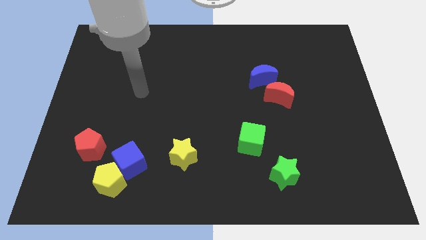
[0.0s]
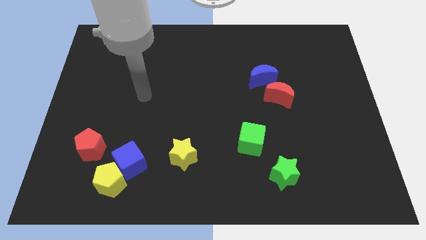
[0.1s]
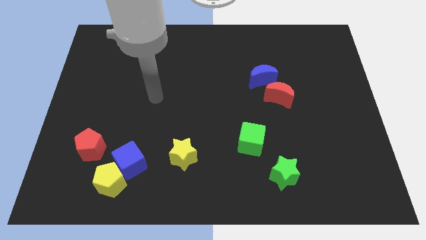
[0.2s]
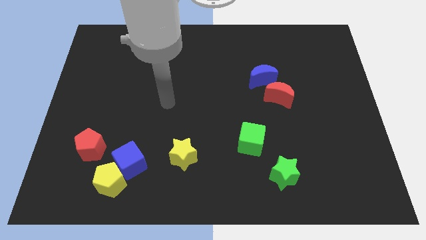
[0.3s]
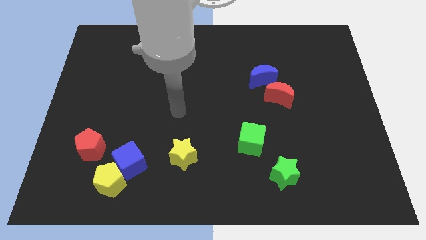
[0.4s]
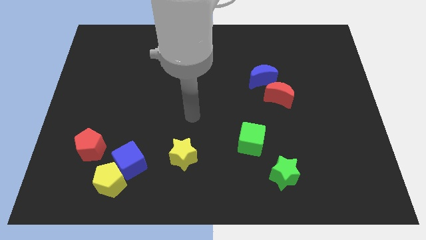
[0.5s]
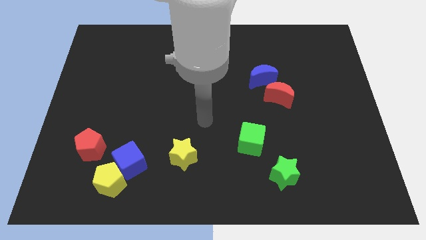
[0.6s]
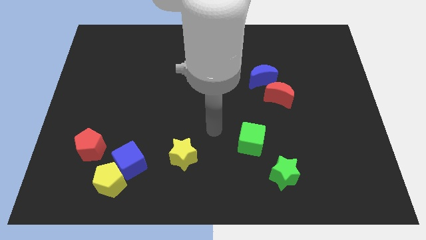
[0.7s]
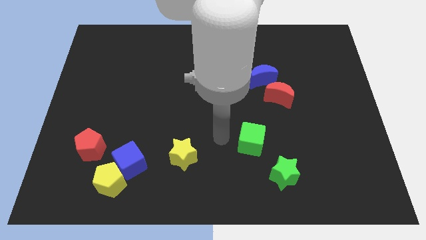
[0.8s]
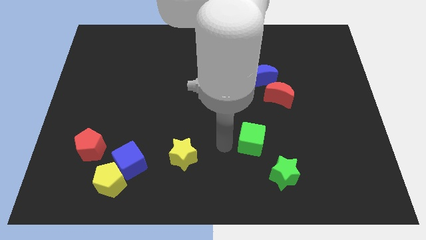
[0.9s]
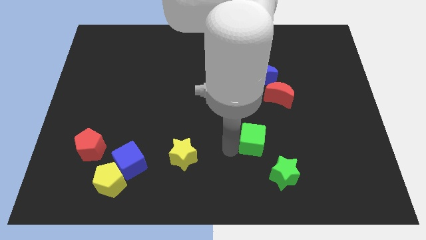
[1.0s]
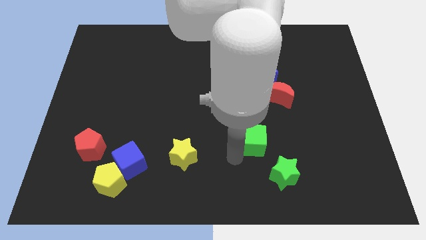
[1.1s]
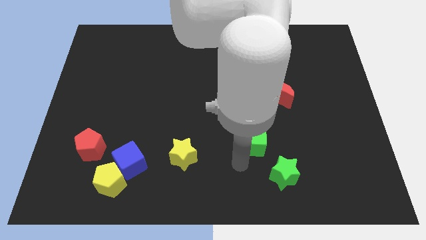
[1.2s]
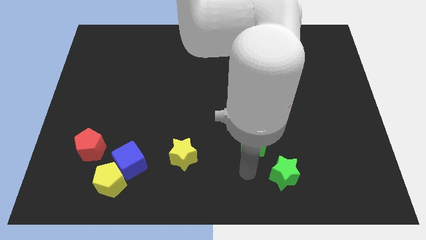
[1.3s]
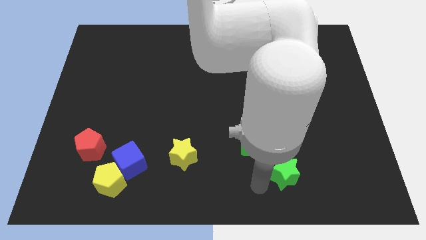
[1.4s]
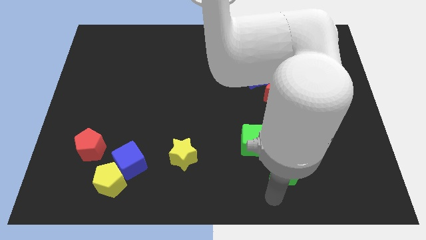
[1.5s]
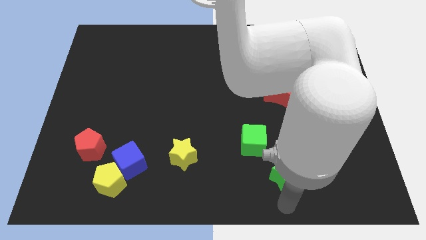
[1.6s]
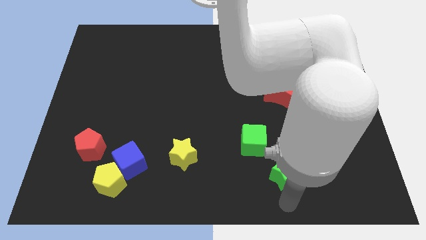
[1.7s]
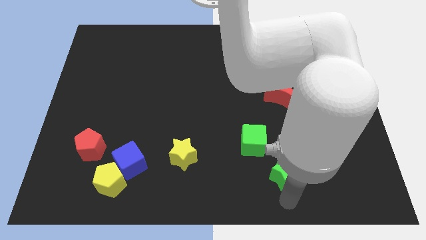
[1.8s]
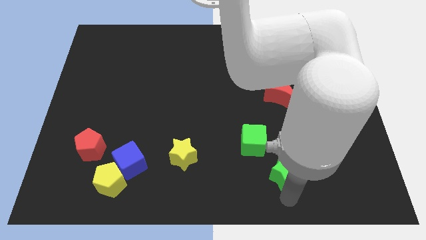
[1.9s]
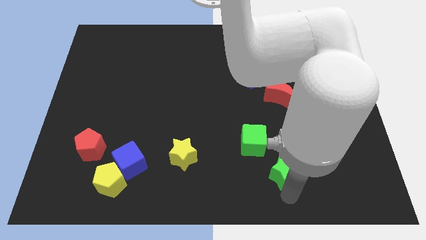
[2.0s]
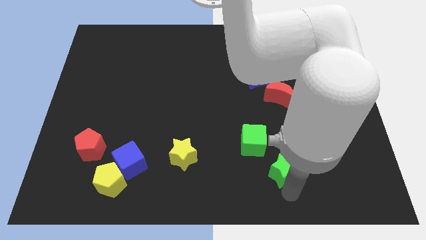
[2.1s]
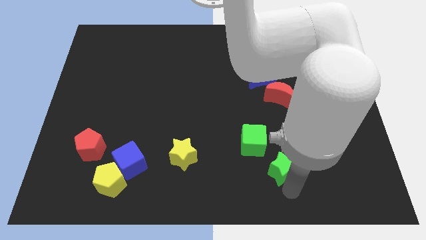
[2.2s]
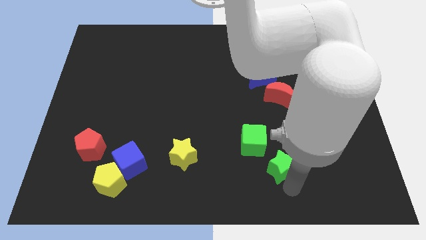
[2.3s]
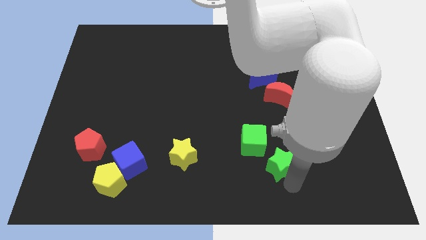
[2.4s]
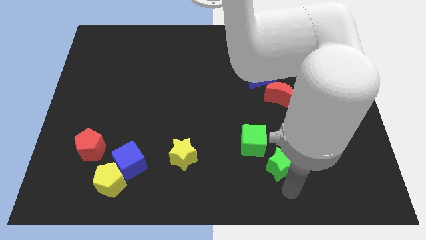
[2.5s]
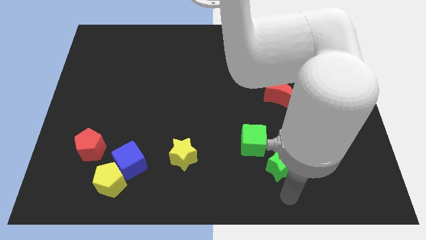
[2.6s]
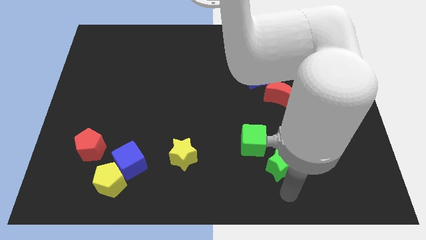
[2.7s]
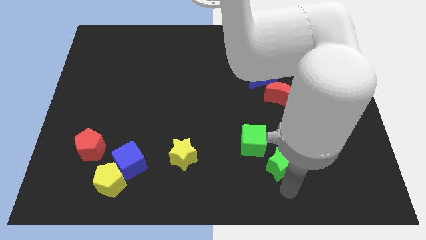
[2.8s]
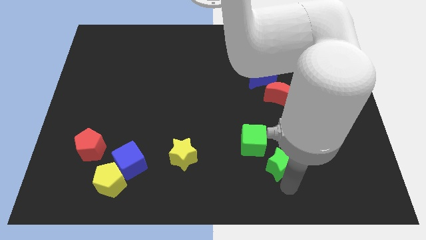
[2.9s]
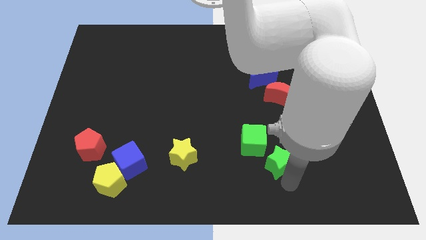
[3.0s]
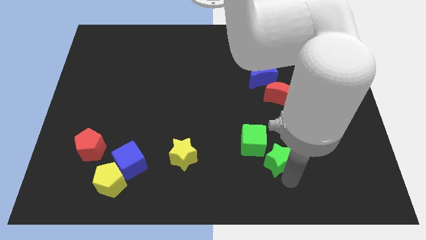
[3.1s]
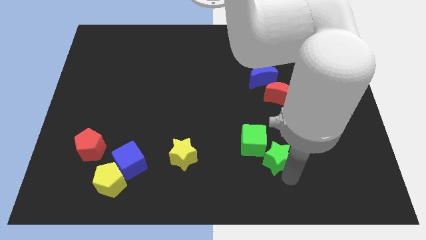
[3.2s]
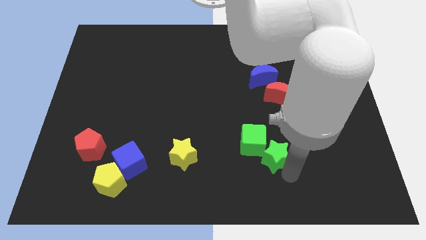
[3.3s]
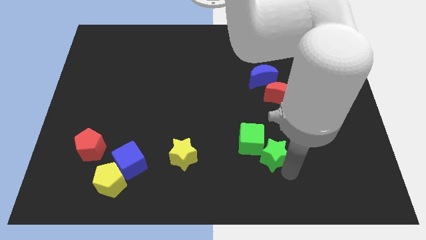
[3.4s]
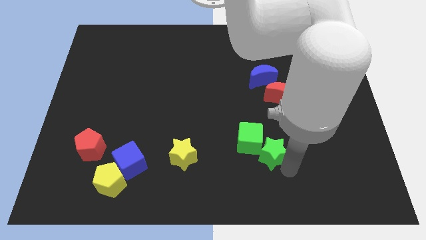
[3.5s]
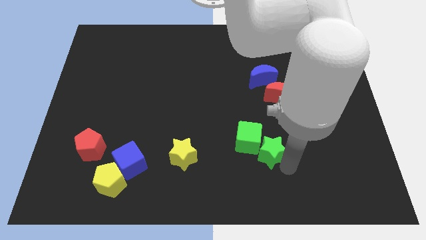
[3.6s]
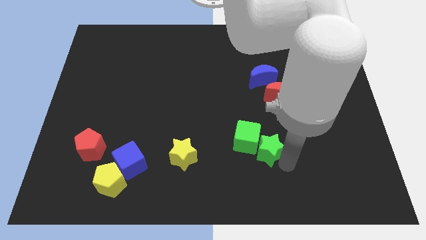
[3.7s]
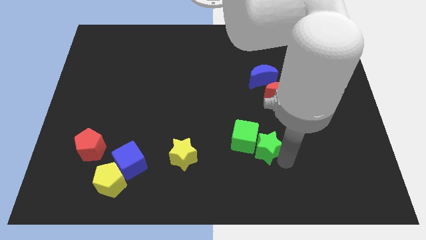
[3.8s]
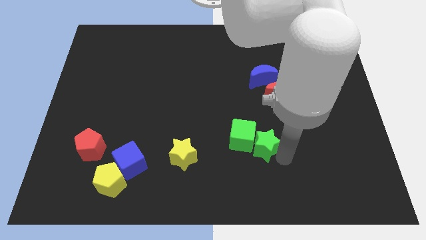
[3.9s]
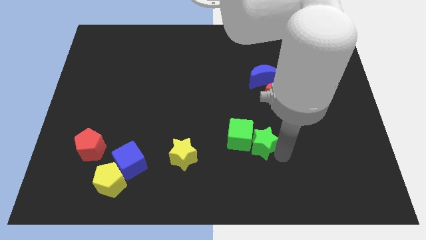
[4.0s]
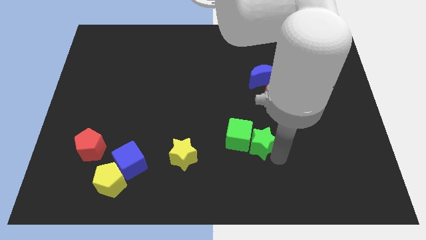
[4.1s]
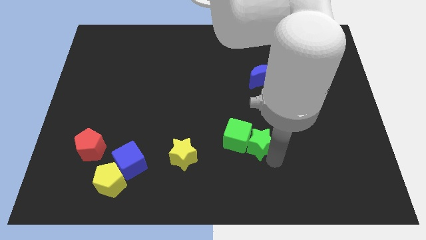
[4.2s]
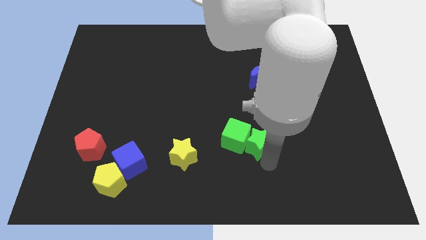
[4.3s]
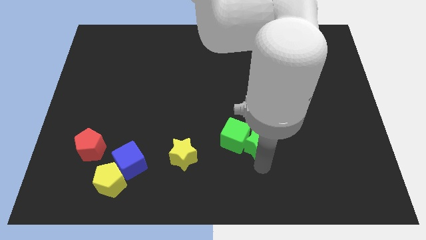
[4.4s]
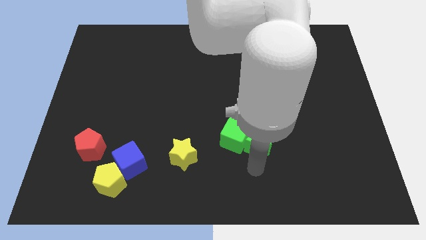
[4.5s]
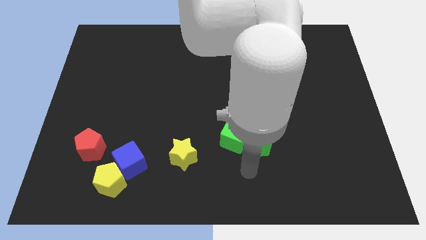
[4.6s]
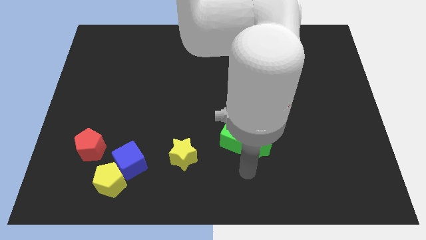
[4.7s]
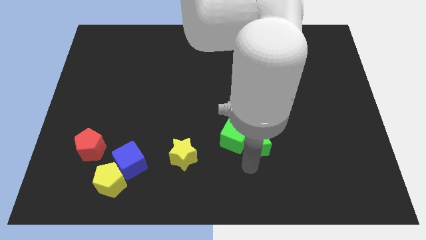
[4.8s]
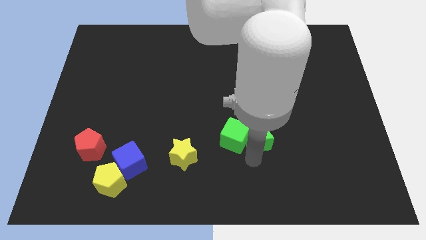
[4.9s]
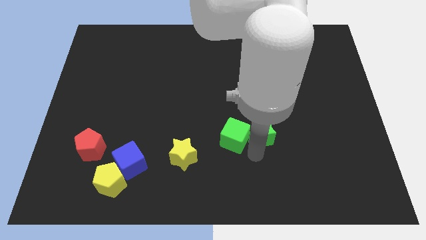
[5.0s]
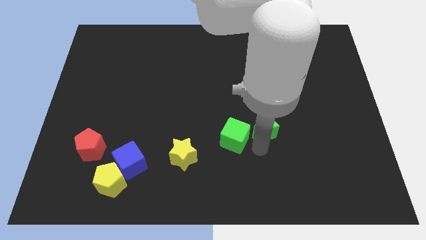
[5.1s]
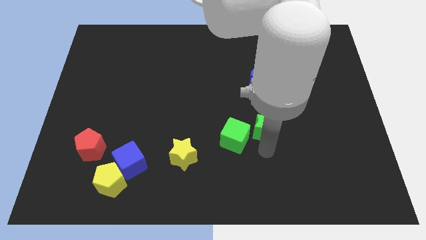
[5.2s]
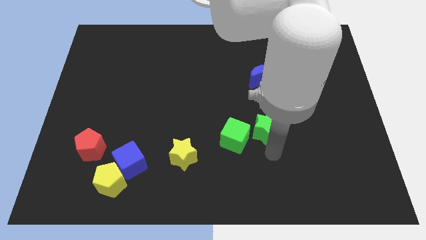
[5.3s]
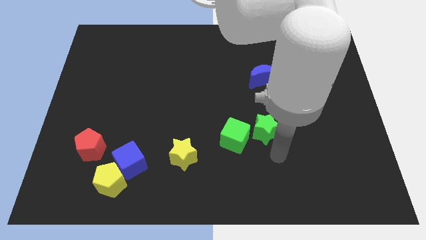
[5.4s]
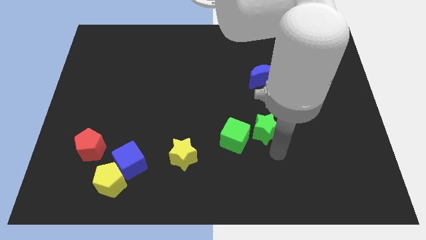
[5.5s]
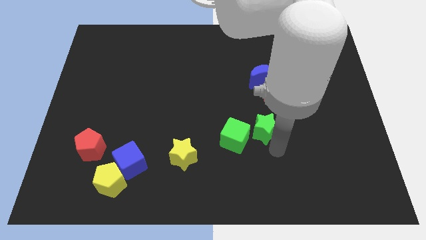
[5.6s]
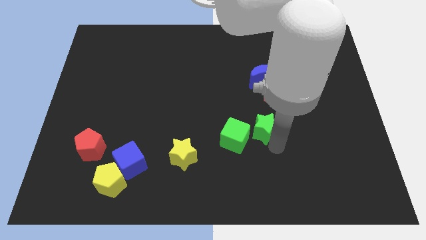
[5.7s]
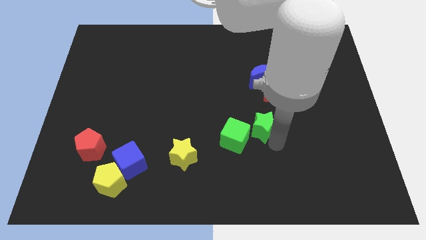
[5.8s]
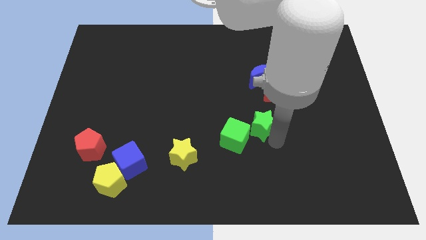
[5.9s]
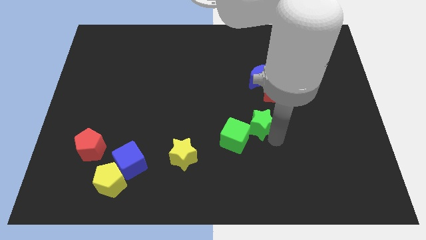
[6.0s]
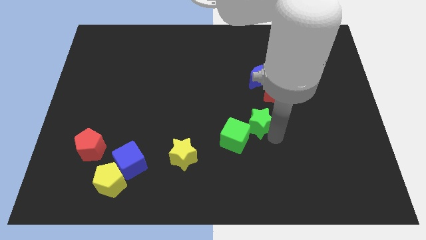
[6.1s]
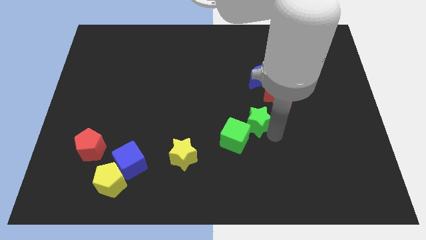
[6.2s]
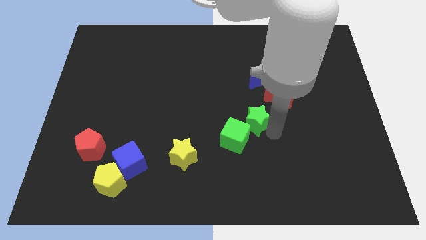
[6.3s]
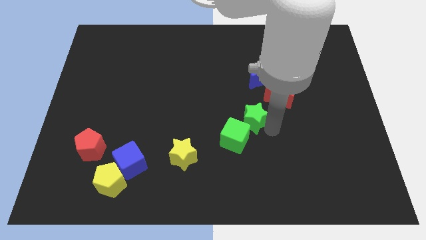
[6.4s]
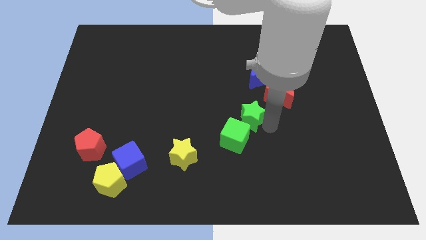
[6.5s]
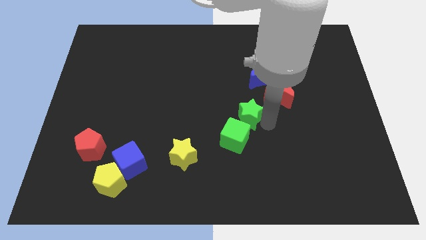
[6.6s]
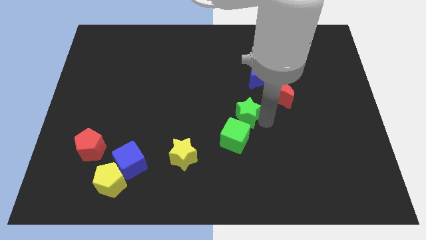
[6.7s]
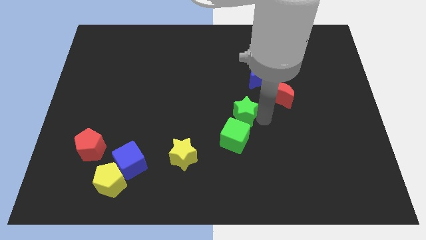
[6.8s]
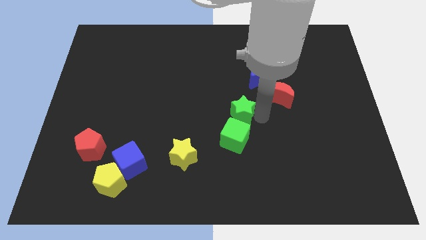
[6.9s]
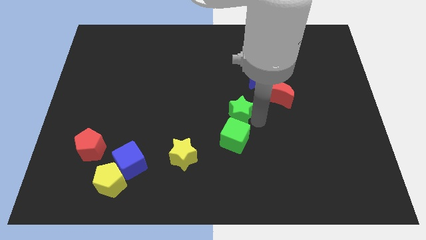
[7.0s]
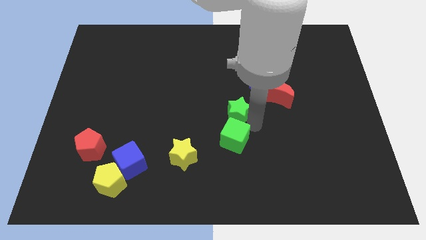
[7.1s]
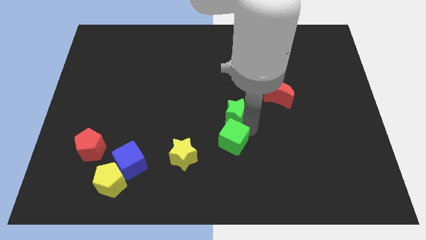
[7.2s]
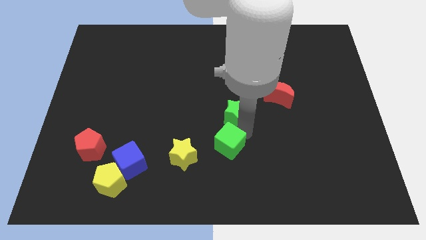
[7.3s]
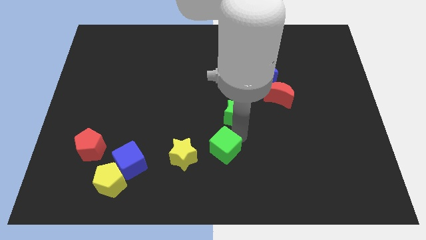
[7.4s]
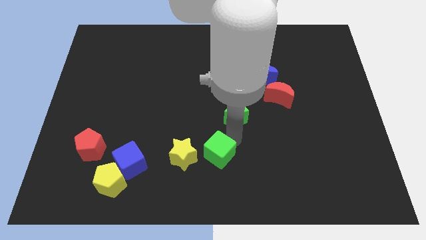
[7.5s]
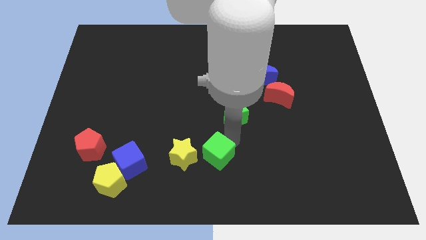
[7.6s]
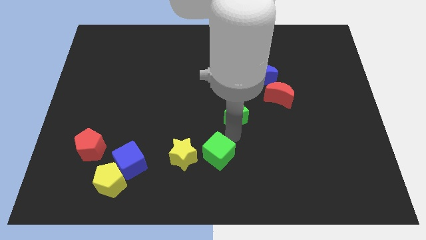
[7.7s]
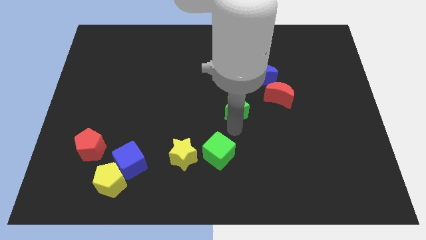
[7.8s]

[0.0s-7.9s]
move the green star diagonally down and to the left of the blue moon
